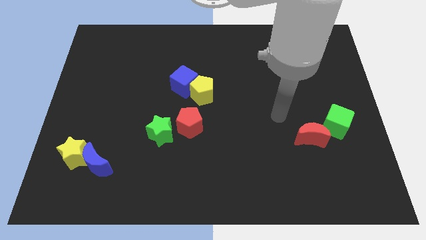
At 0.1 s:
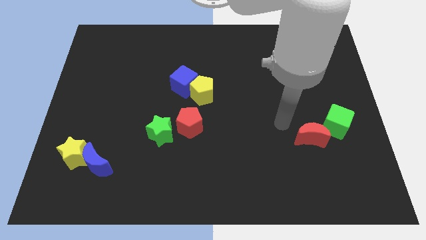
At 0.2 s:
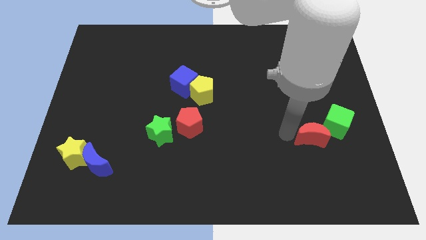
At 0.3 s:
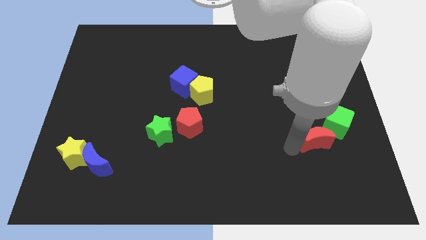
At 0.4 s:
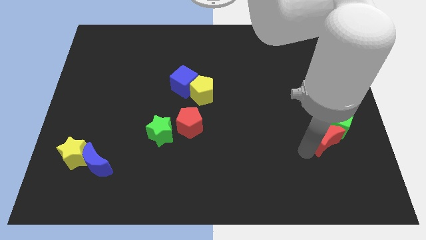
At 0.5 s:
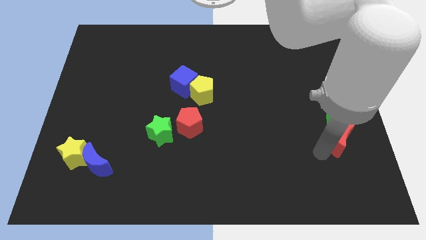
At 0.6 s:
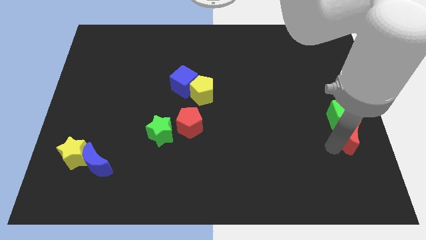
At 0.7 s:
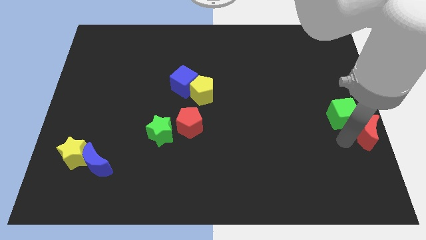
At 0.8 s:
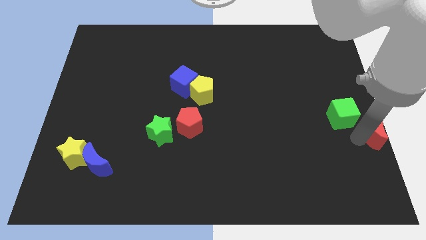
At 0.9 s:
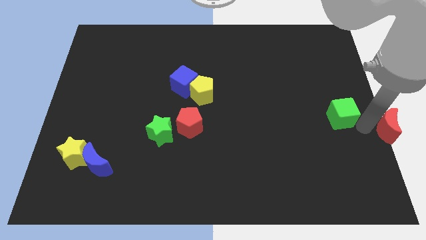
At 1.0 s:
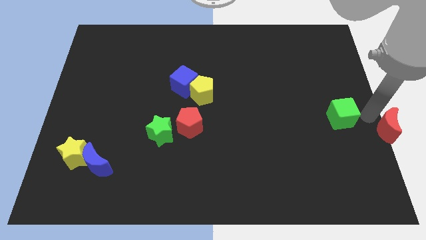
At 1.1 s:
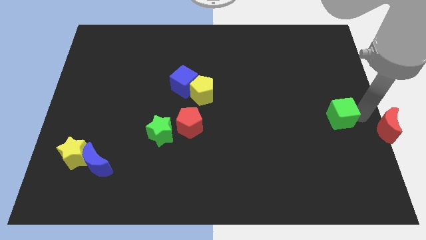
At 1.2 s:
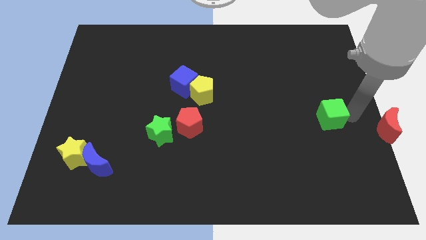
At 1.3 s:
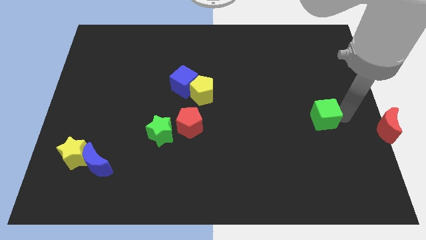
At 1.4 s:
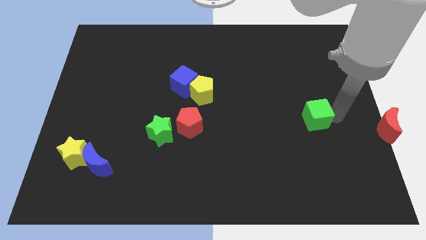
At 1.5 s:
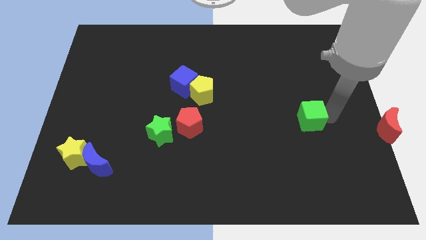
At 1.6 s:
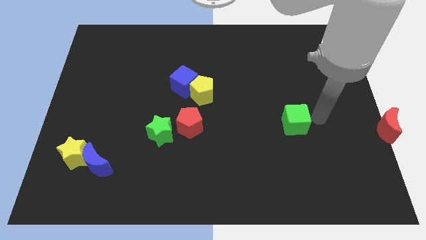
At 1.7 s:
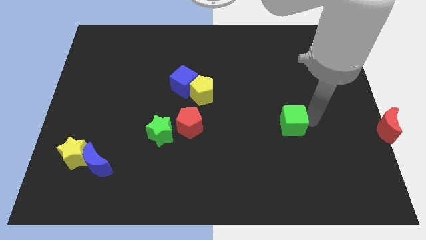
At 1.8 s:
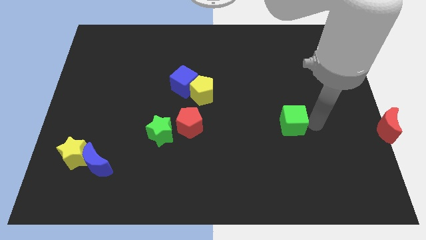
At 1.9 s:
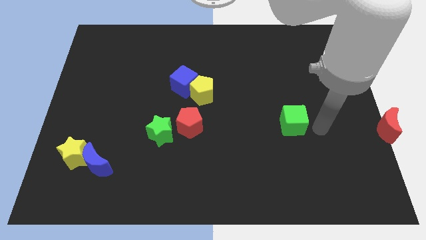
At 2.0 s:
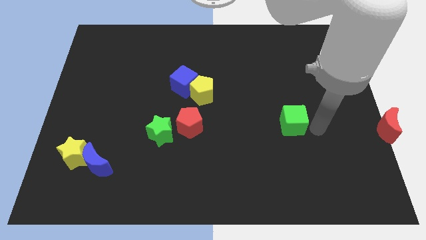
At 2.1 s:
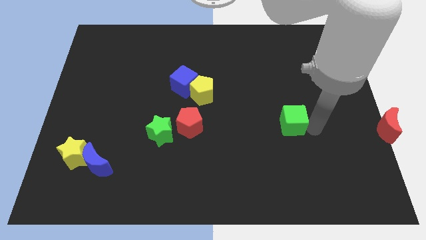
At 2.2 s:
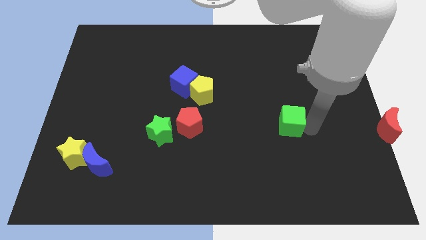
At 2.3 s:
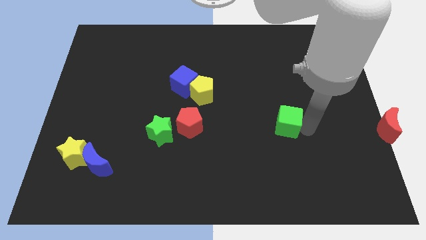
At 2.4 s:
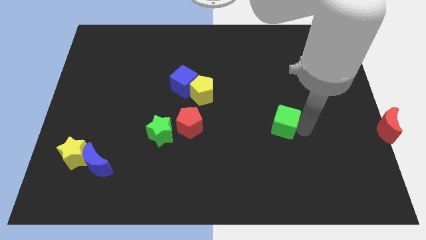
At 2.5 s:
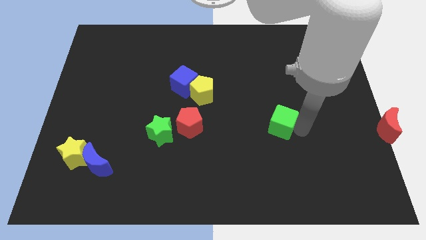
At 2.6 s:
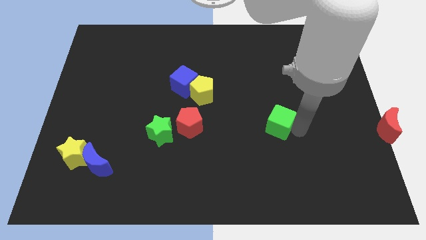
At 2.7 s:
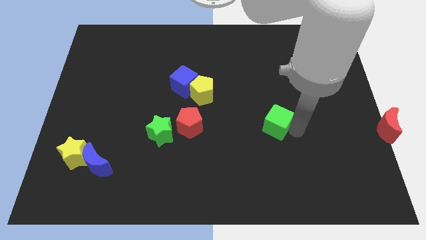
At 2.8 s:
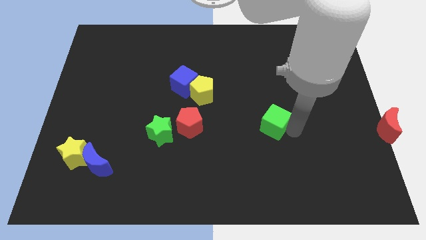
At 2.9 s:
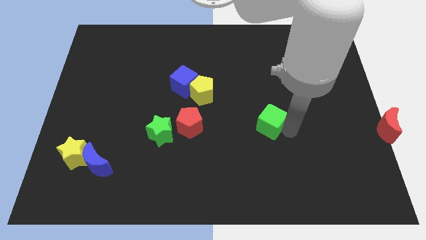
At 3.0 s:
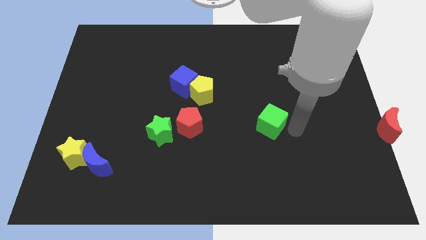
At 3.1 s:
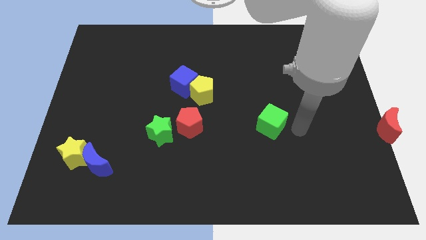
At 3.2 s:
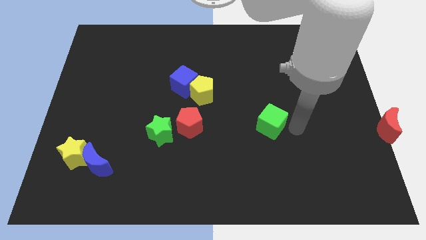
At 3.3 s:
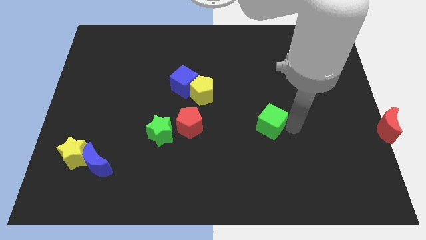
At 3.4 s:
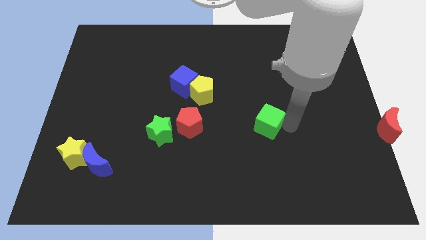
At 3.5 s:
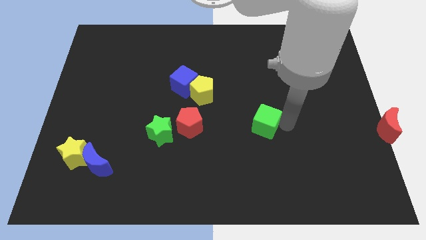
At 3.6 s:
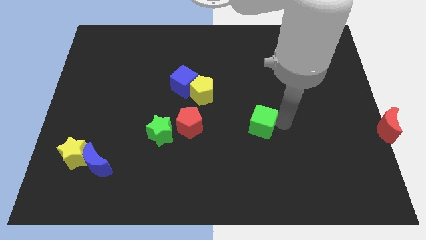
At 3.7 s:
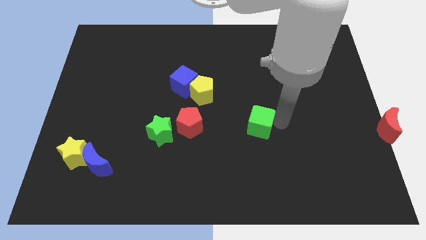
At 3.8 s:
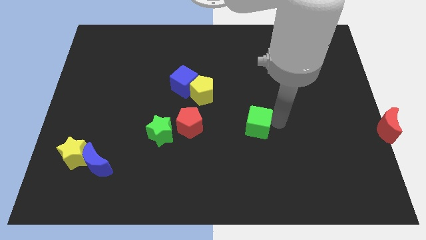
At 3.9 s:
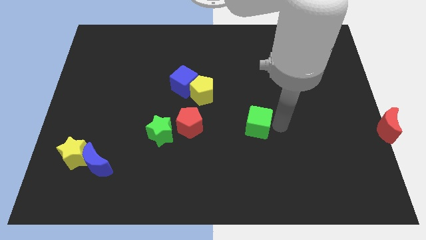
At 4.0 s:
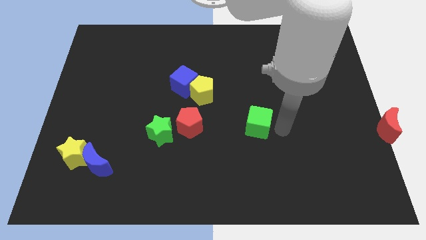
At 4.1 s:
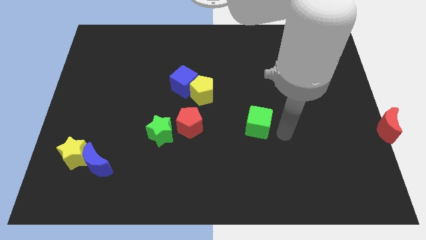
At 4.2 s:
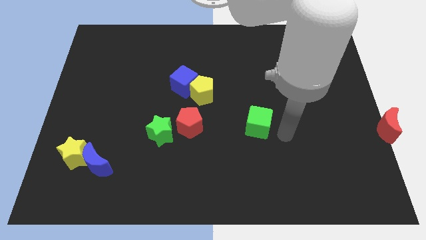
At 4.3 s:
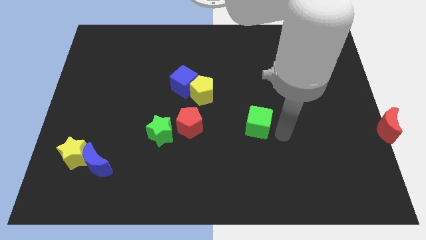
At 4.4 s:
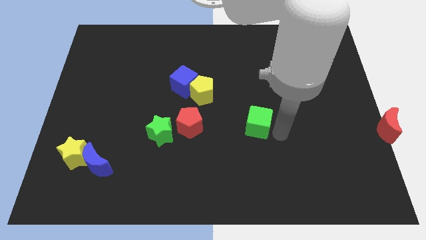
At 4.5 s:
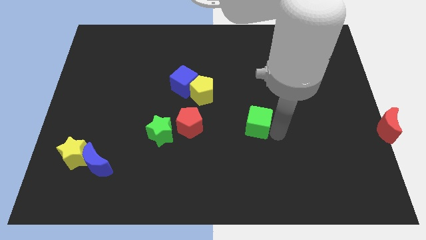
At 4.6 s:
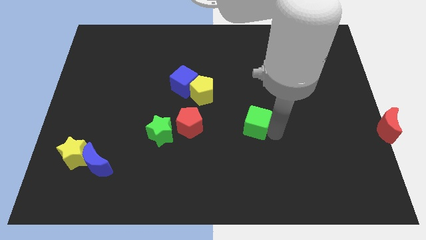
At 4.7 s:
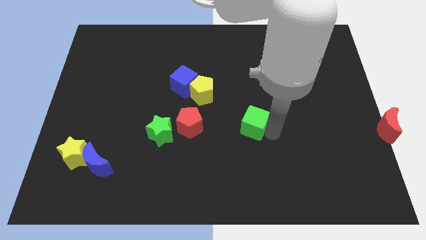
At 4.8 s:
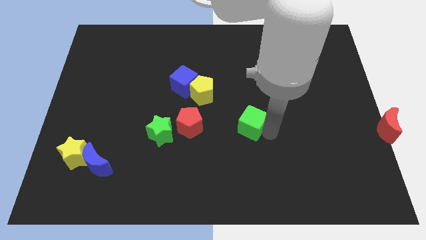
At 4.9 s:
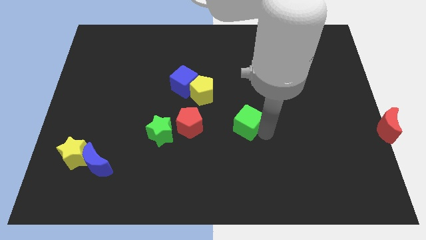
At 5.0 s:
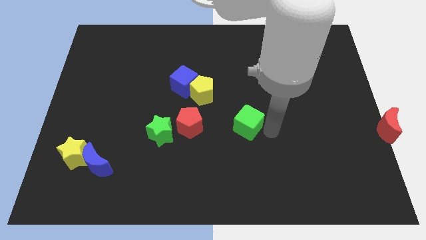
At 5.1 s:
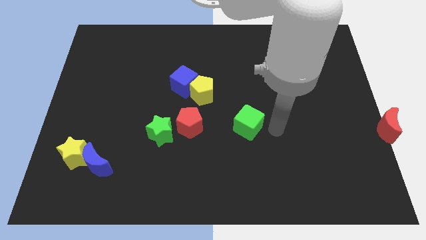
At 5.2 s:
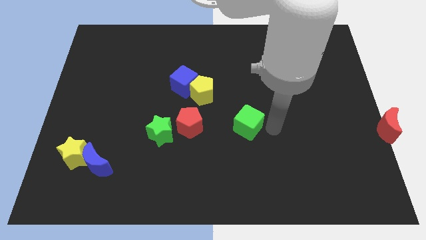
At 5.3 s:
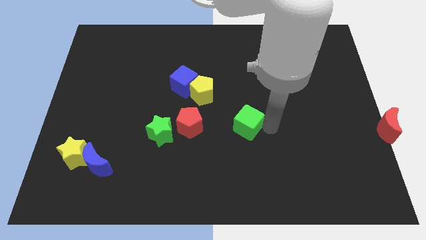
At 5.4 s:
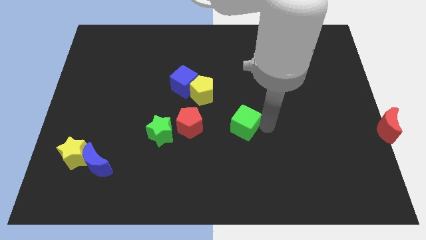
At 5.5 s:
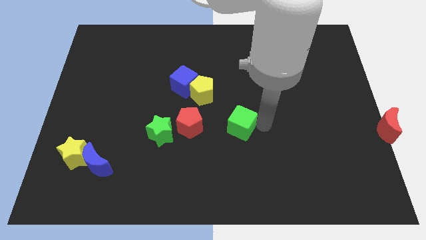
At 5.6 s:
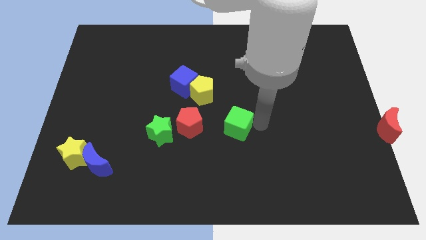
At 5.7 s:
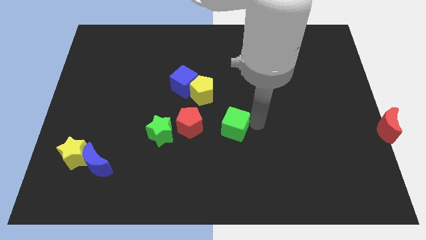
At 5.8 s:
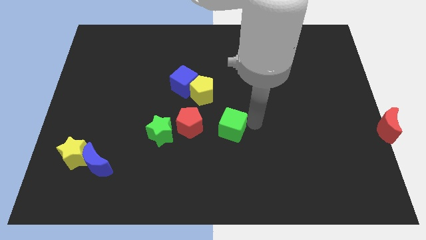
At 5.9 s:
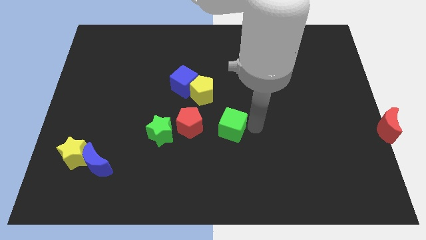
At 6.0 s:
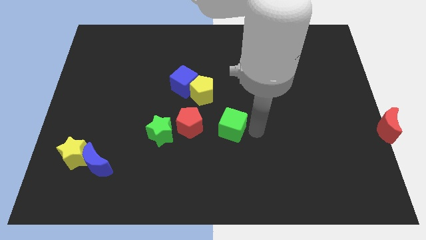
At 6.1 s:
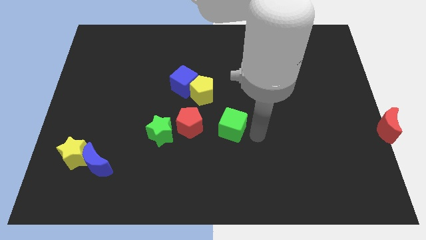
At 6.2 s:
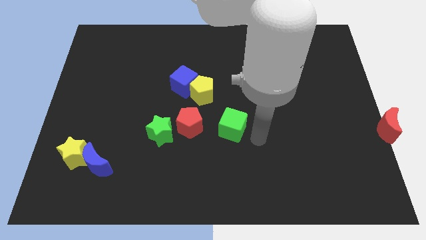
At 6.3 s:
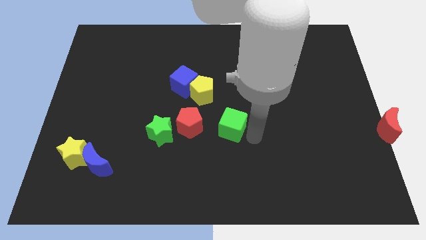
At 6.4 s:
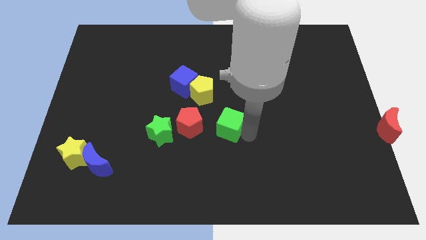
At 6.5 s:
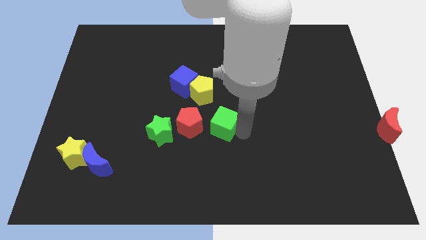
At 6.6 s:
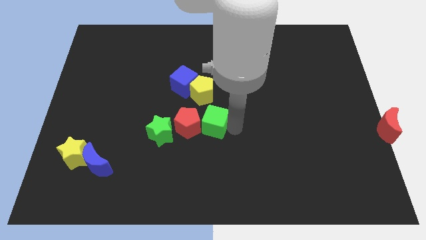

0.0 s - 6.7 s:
put the green cube next to the red pentagon

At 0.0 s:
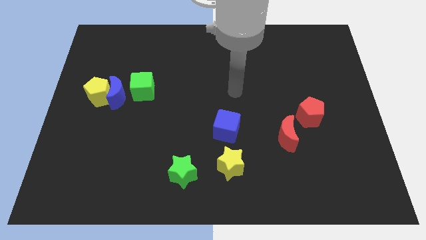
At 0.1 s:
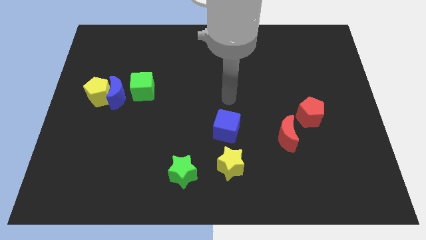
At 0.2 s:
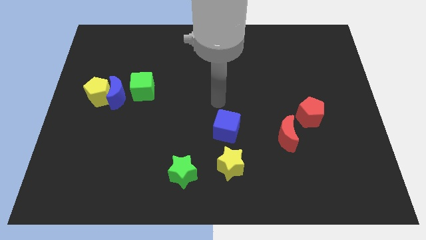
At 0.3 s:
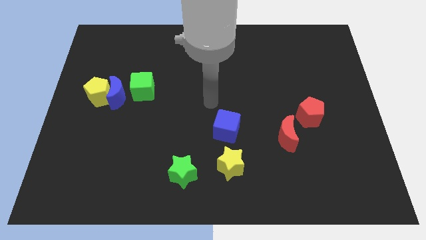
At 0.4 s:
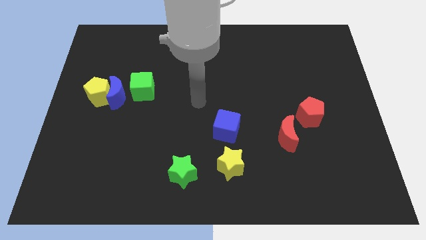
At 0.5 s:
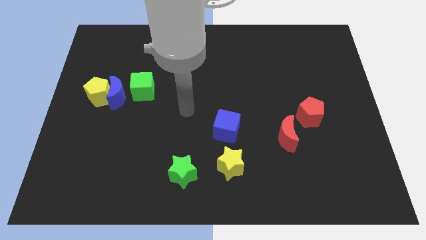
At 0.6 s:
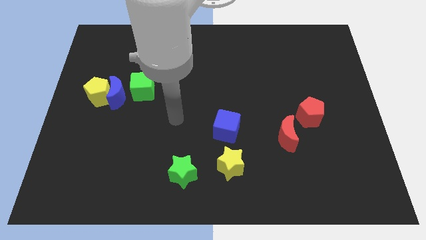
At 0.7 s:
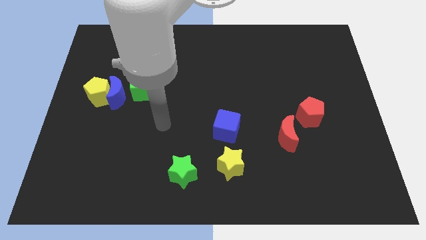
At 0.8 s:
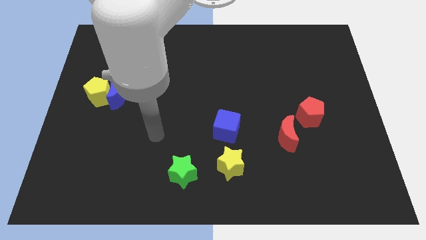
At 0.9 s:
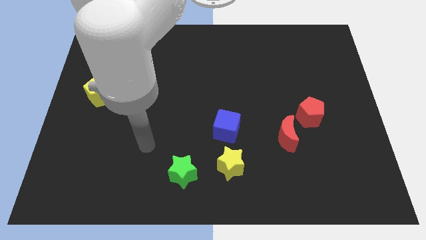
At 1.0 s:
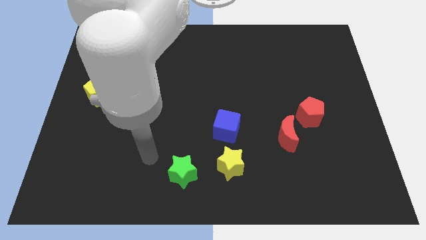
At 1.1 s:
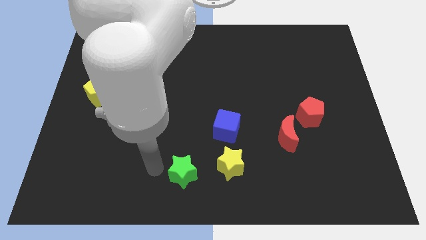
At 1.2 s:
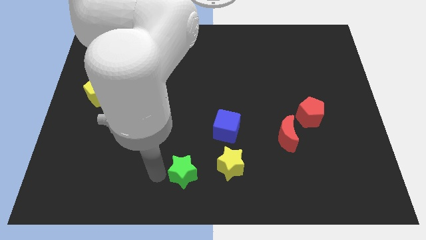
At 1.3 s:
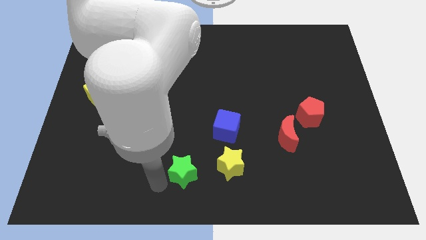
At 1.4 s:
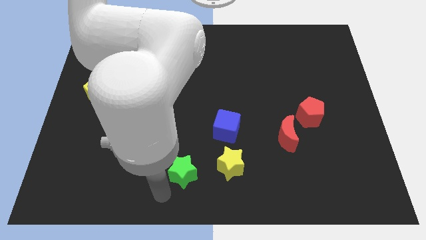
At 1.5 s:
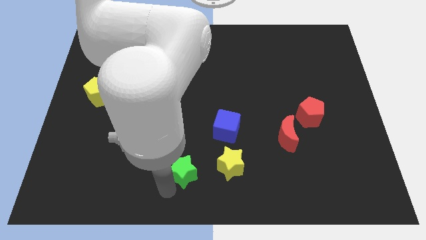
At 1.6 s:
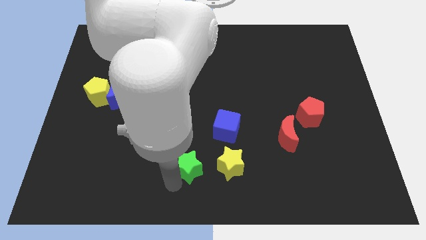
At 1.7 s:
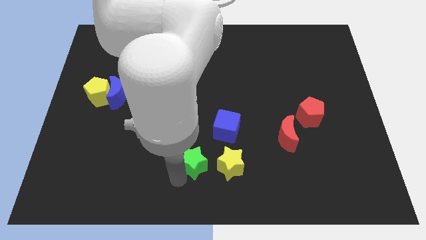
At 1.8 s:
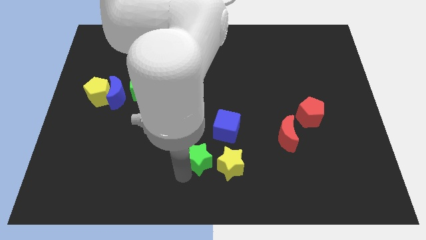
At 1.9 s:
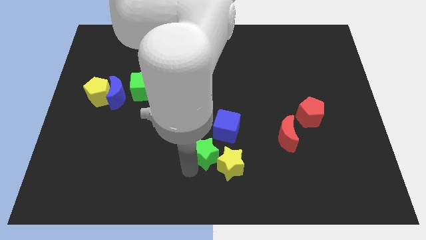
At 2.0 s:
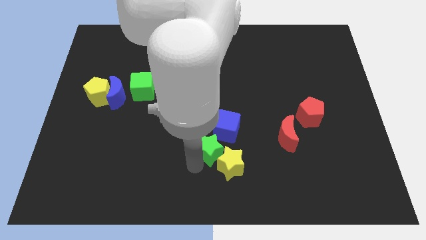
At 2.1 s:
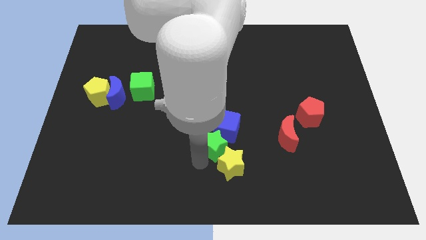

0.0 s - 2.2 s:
move the green star towards the blue cube
